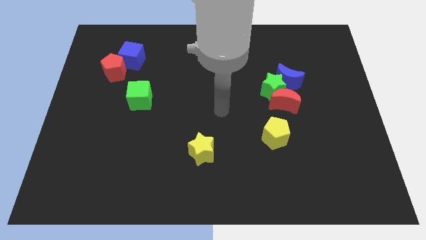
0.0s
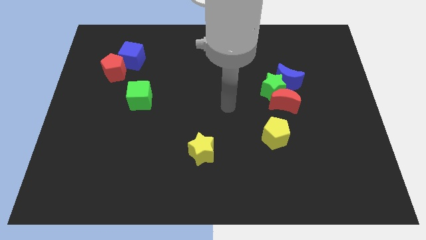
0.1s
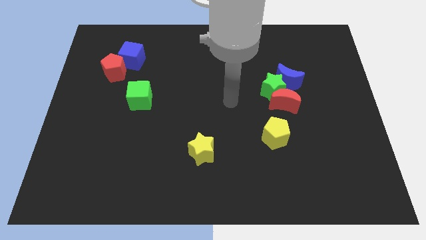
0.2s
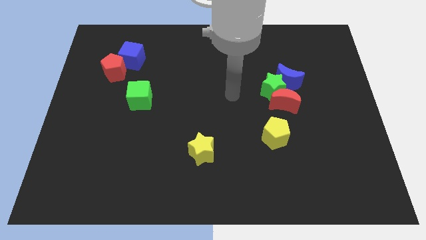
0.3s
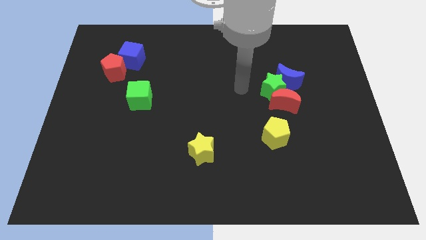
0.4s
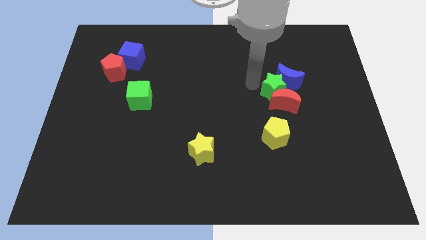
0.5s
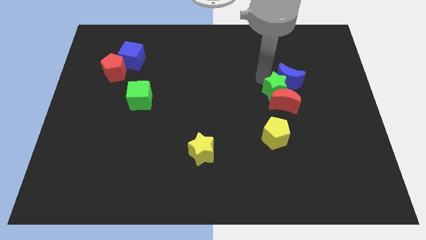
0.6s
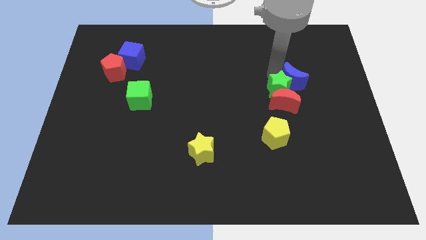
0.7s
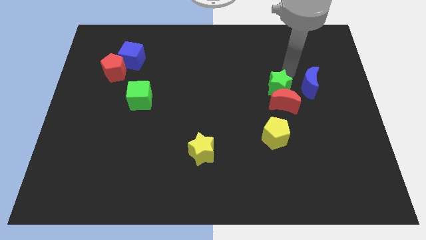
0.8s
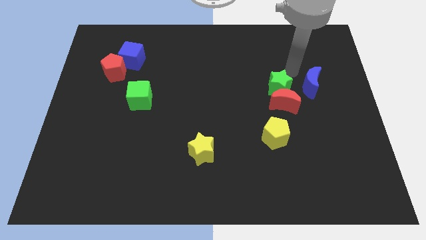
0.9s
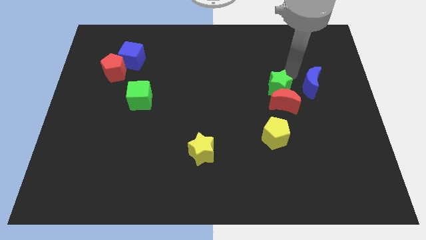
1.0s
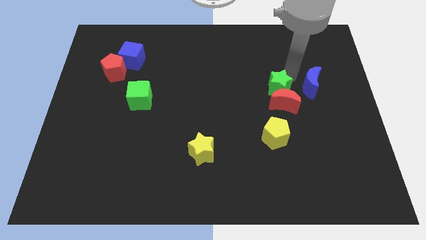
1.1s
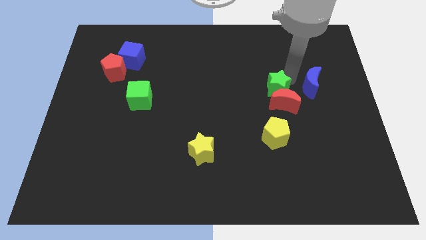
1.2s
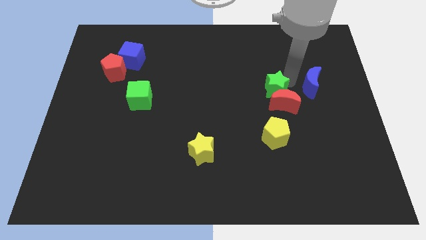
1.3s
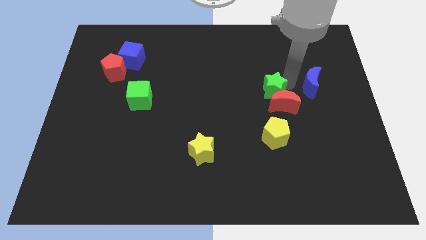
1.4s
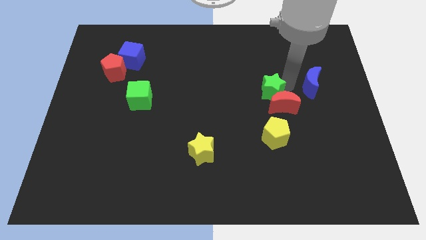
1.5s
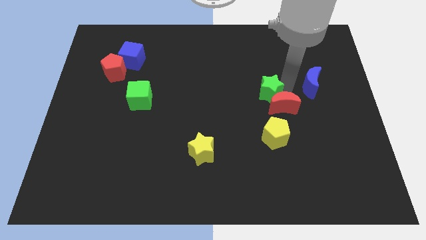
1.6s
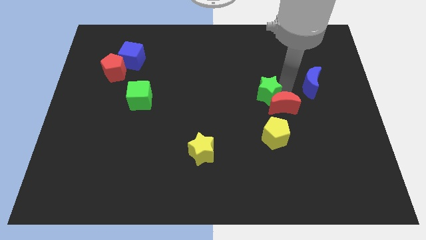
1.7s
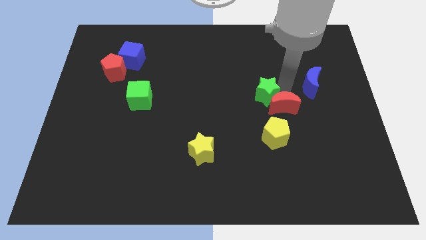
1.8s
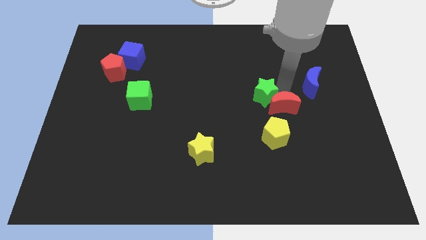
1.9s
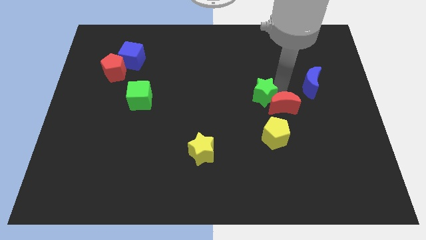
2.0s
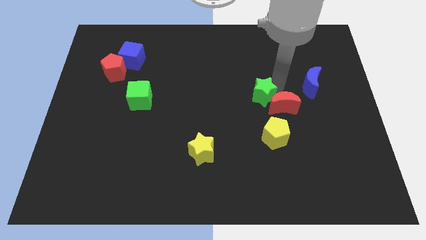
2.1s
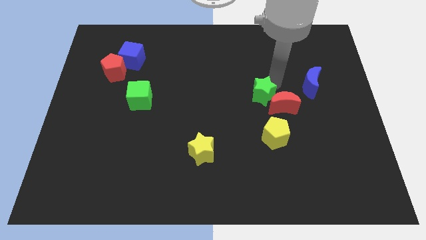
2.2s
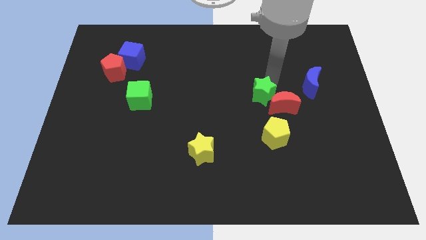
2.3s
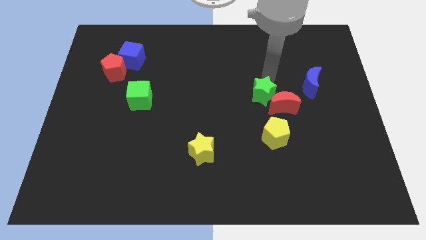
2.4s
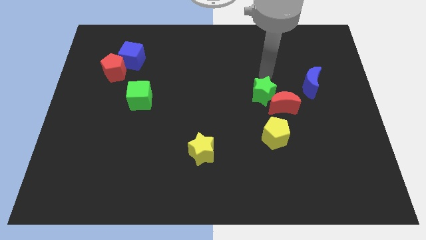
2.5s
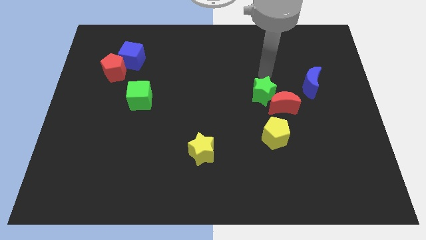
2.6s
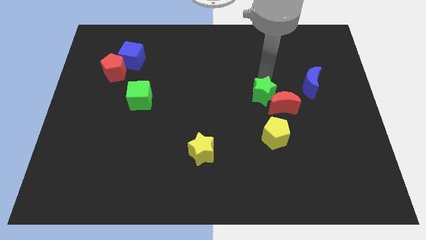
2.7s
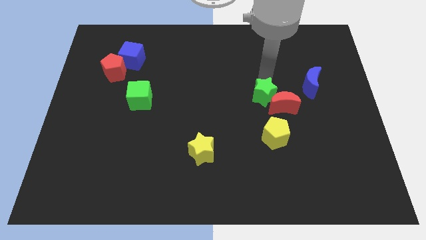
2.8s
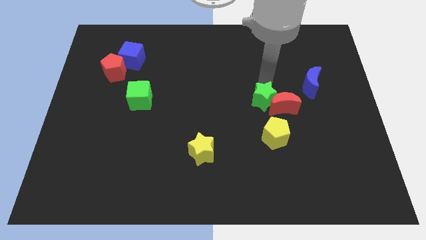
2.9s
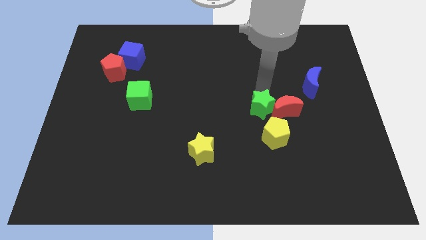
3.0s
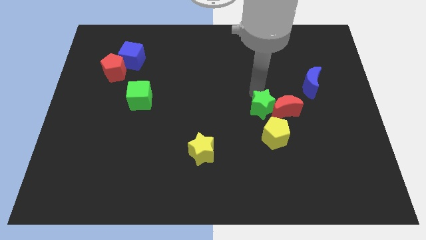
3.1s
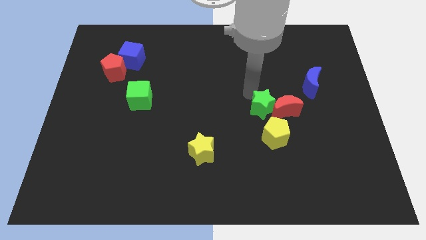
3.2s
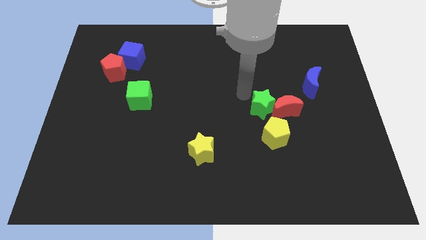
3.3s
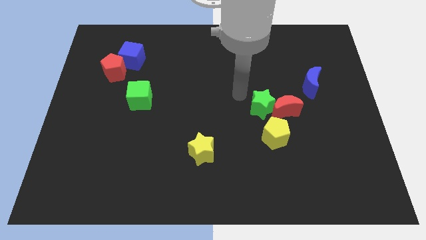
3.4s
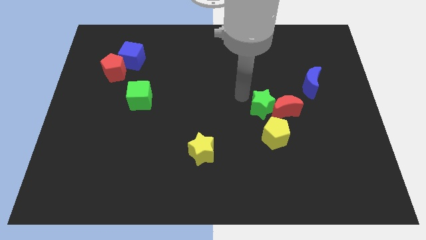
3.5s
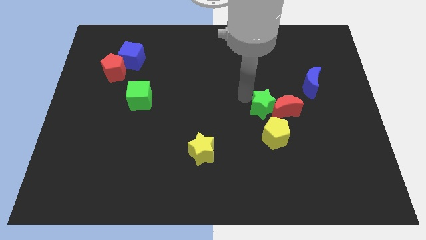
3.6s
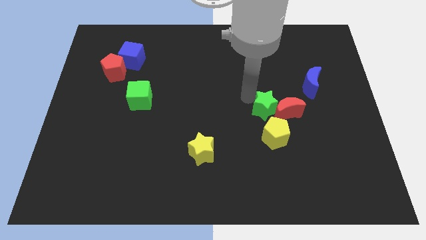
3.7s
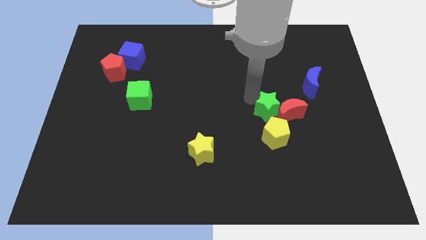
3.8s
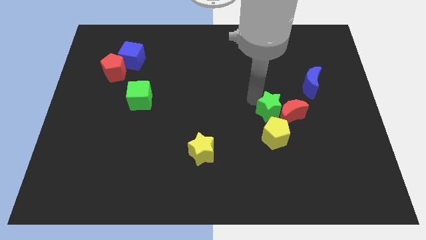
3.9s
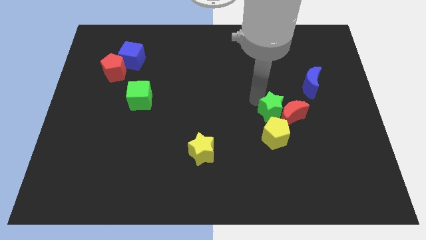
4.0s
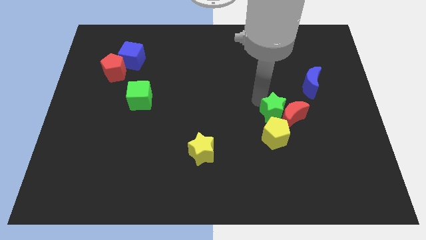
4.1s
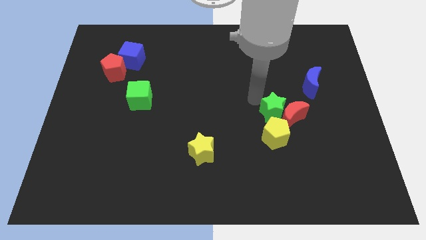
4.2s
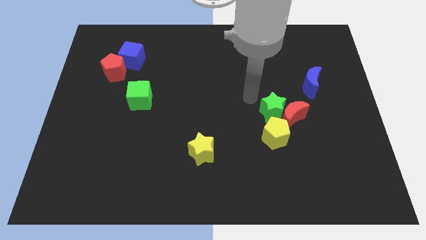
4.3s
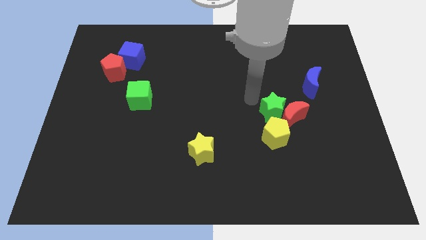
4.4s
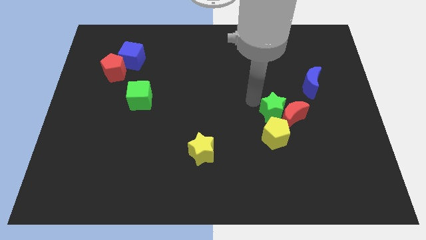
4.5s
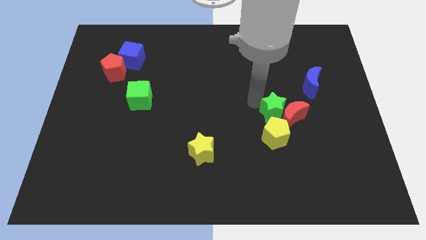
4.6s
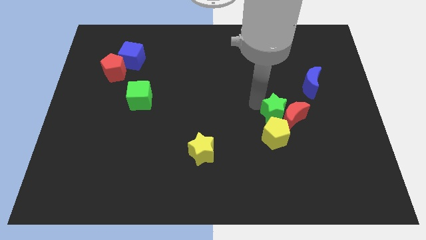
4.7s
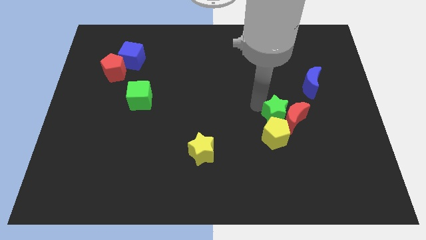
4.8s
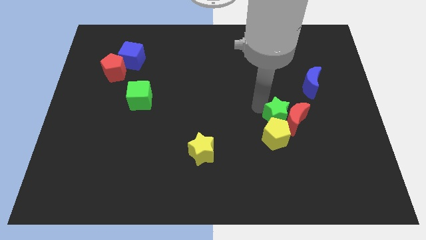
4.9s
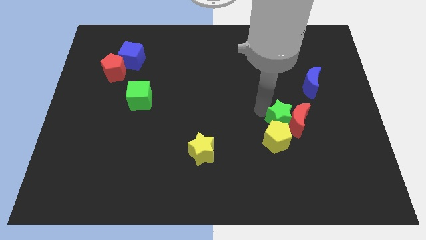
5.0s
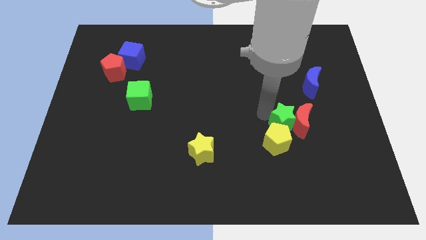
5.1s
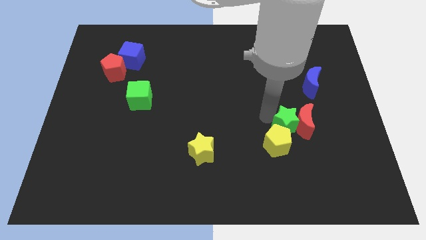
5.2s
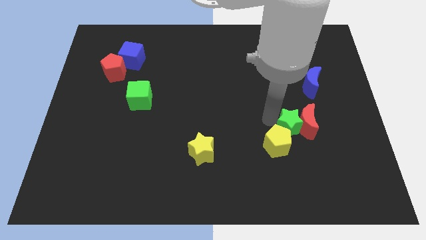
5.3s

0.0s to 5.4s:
put the green star just right of the yellow pentagon

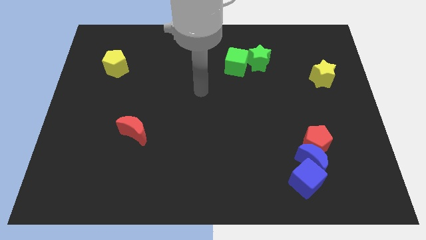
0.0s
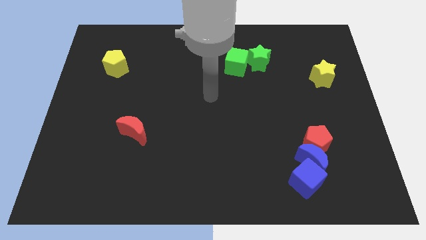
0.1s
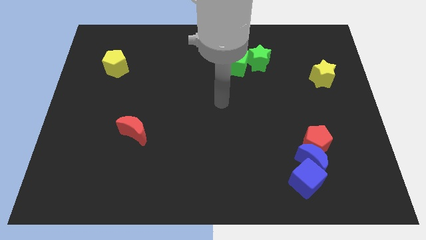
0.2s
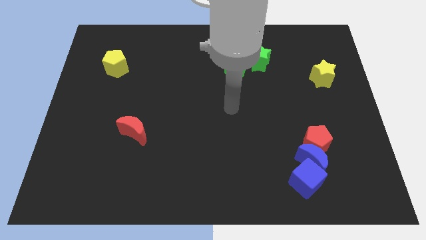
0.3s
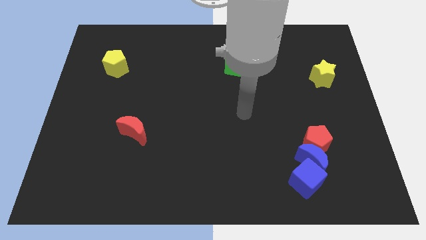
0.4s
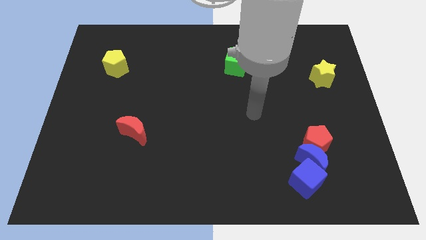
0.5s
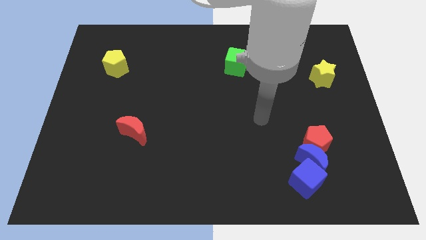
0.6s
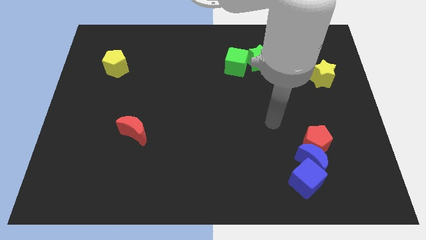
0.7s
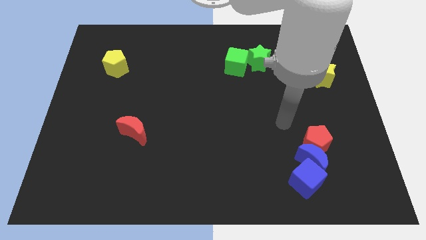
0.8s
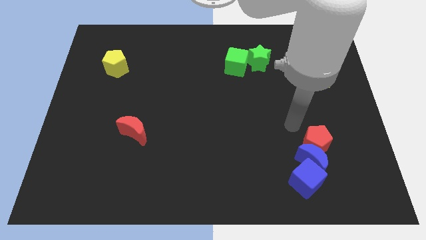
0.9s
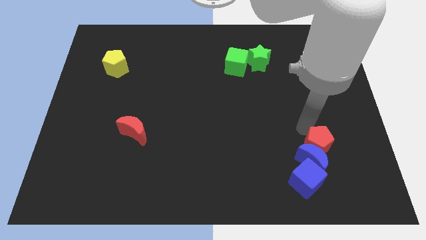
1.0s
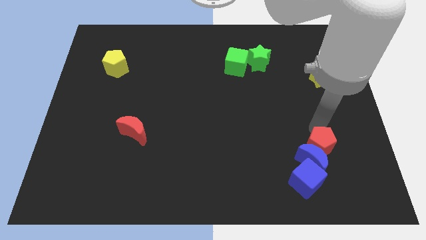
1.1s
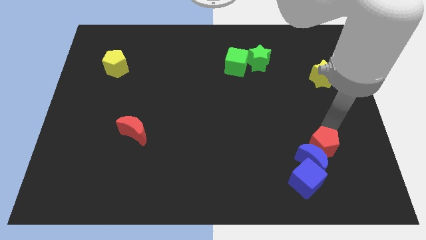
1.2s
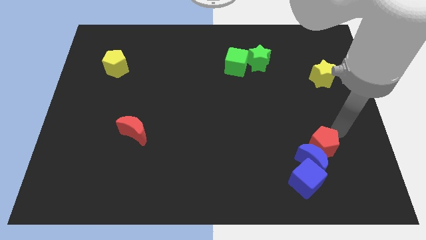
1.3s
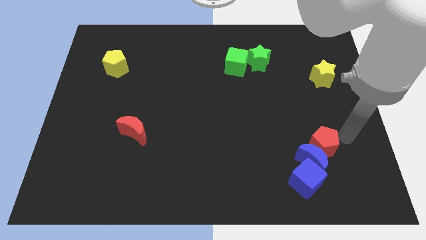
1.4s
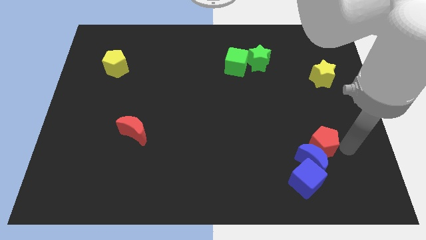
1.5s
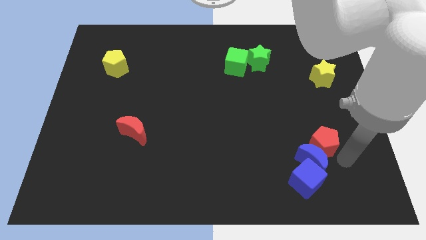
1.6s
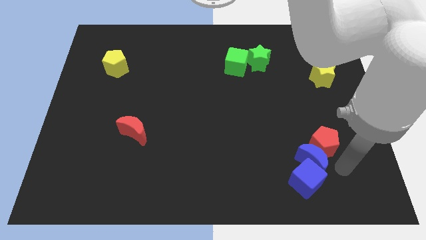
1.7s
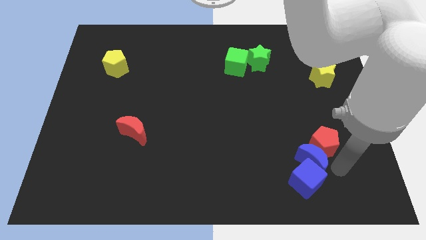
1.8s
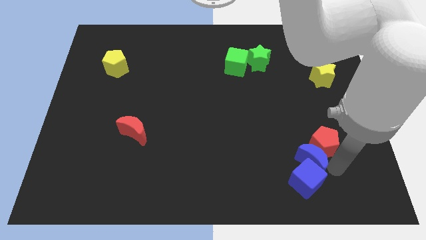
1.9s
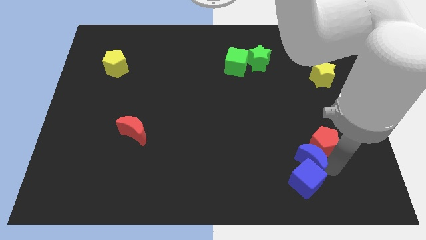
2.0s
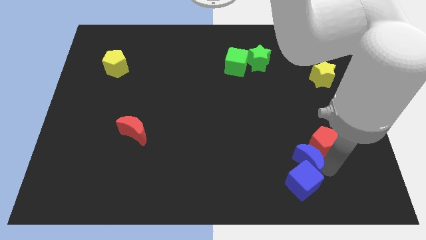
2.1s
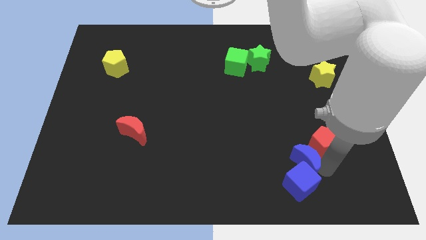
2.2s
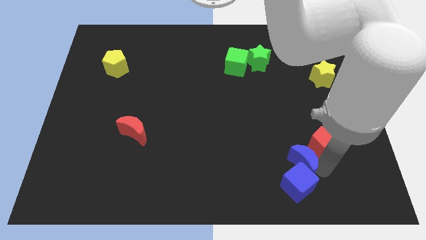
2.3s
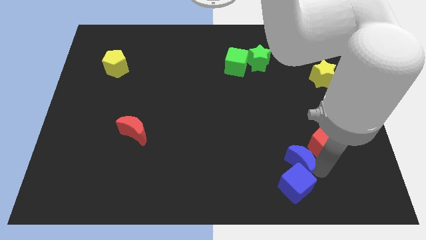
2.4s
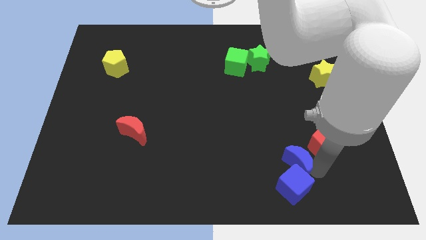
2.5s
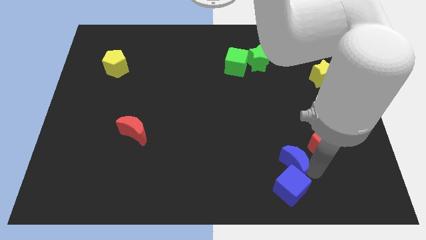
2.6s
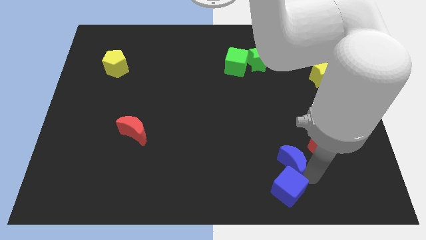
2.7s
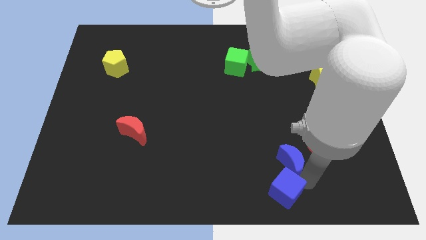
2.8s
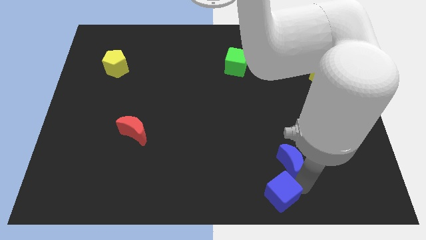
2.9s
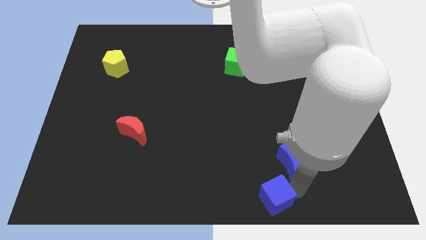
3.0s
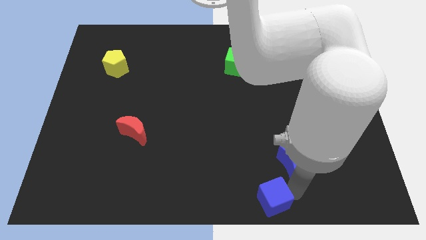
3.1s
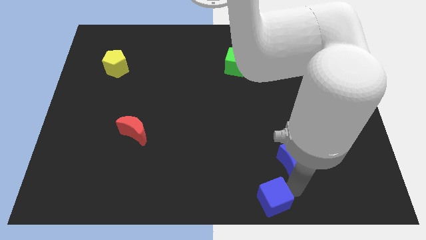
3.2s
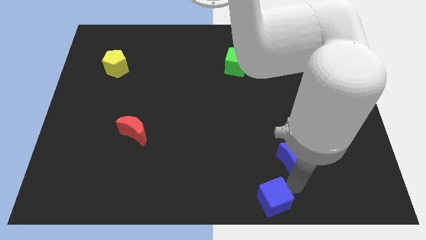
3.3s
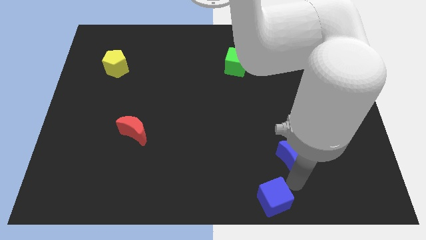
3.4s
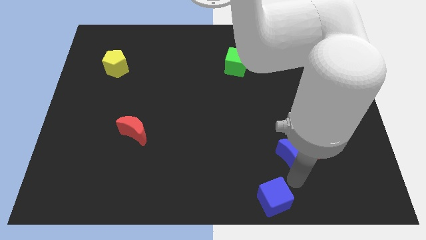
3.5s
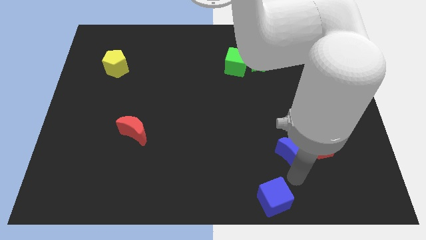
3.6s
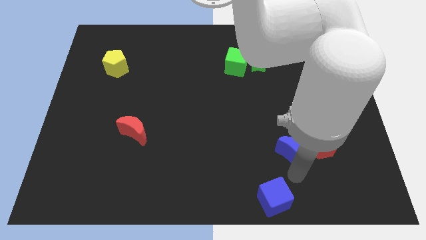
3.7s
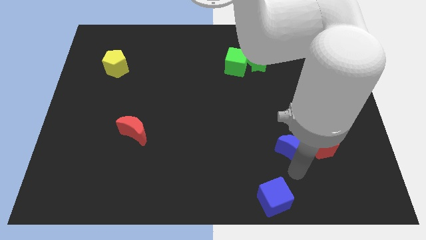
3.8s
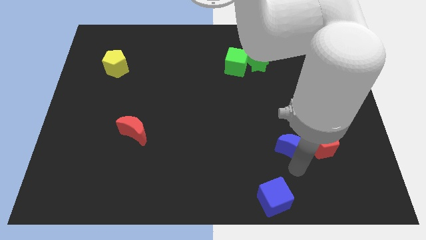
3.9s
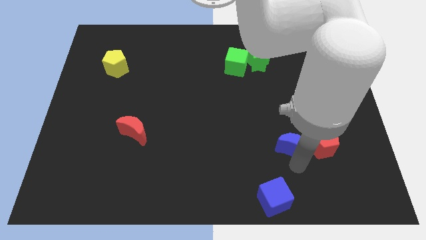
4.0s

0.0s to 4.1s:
move the blue moon diagonally up and to the left of the red pentagon
